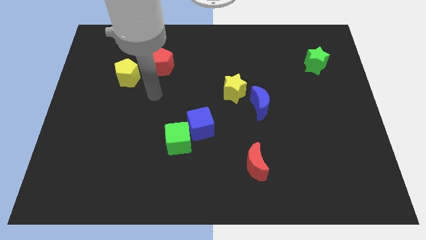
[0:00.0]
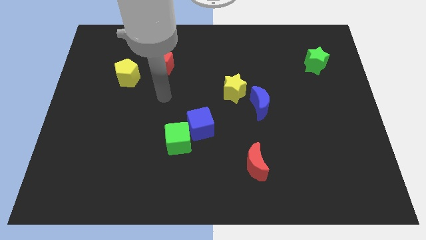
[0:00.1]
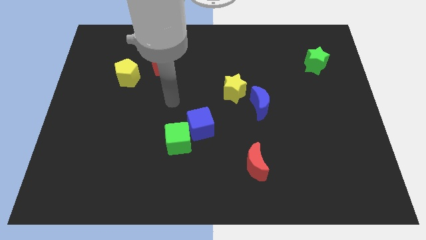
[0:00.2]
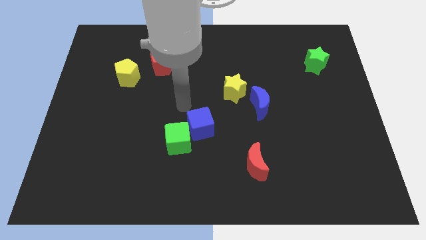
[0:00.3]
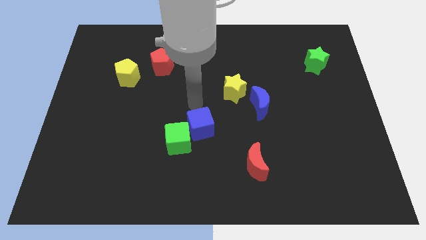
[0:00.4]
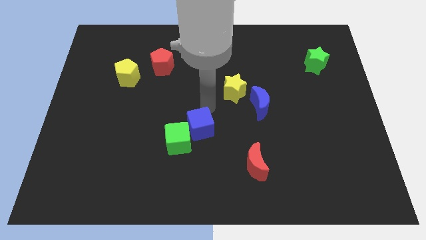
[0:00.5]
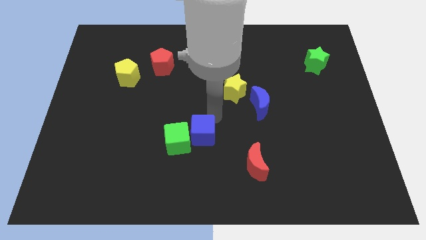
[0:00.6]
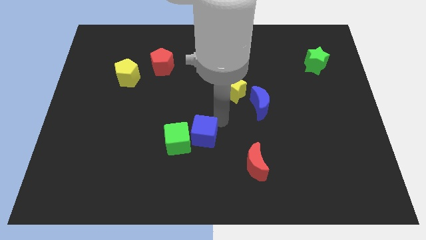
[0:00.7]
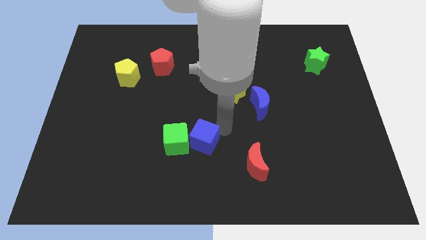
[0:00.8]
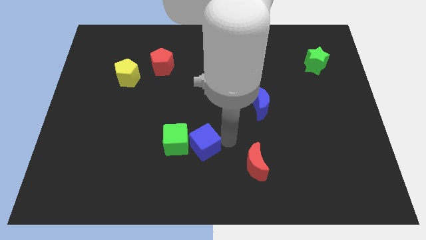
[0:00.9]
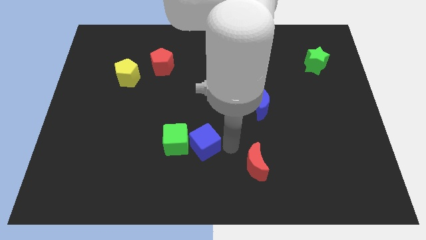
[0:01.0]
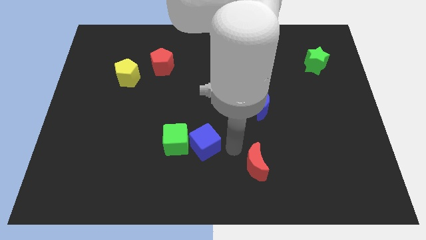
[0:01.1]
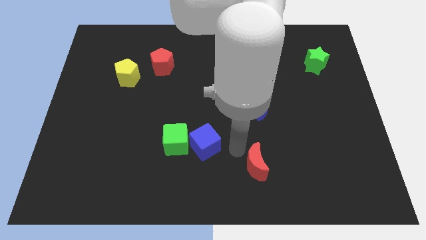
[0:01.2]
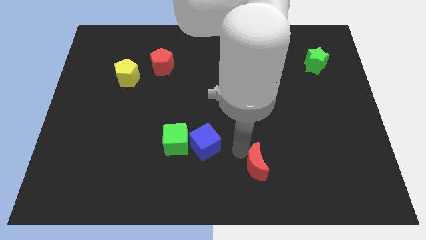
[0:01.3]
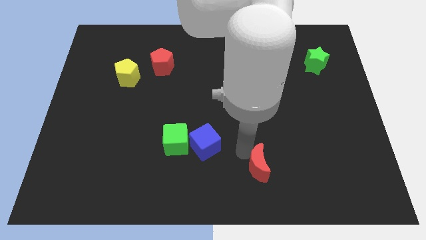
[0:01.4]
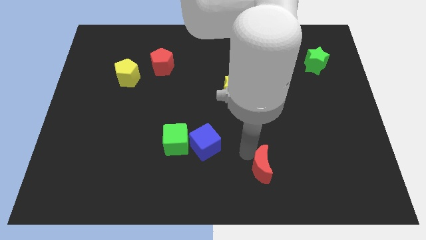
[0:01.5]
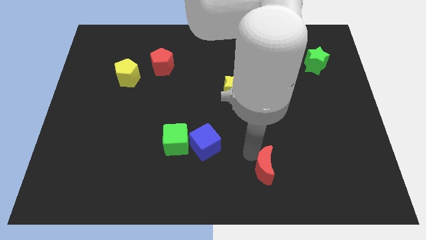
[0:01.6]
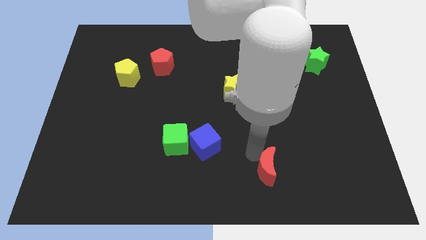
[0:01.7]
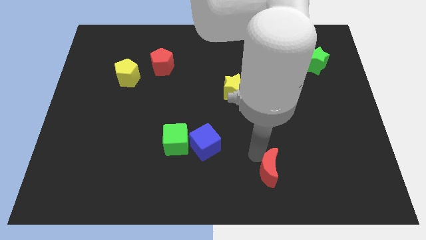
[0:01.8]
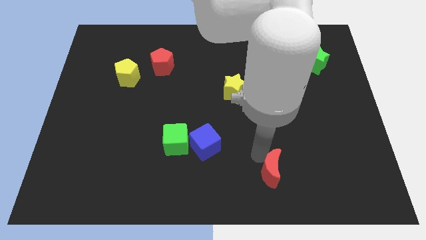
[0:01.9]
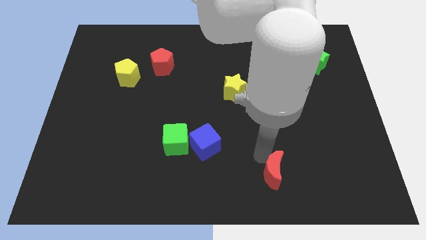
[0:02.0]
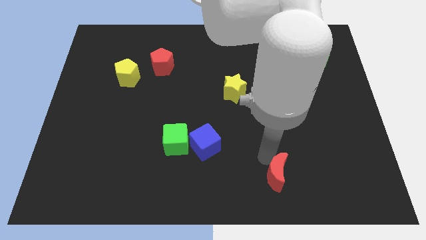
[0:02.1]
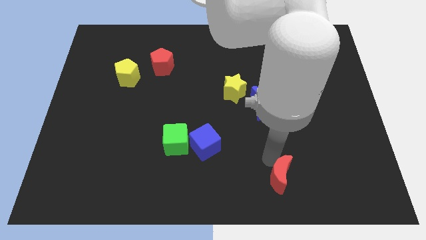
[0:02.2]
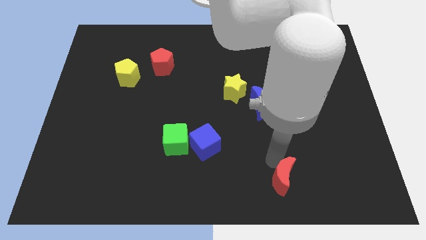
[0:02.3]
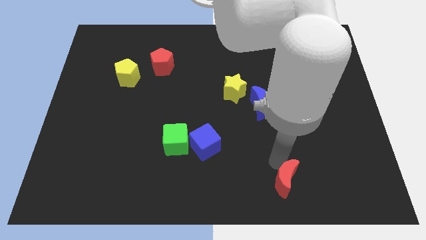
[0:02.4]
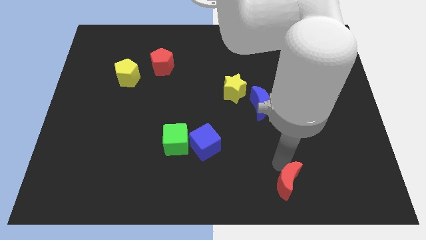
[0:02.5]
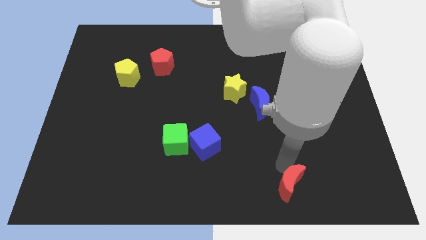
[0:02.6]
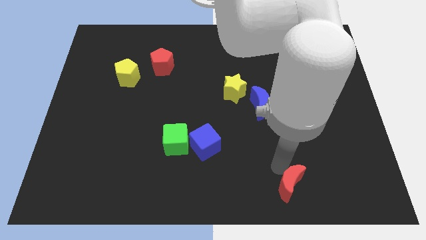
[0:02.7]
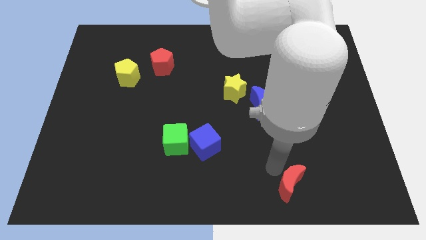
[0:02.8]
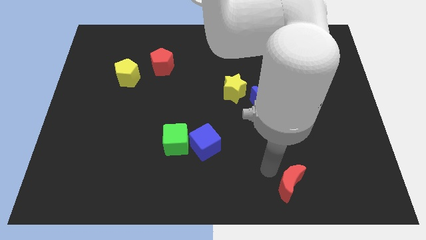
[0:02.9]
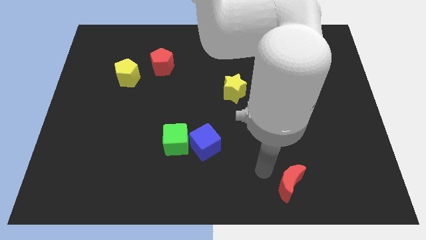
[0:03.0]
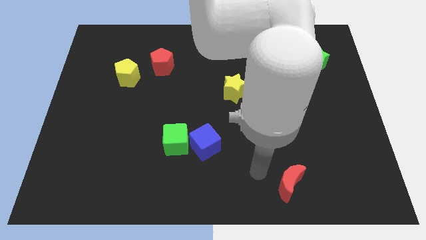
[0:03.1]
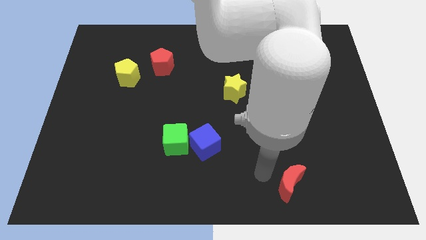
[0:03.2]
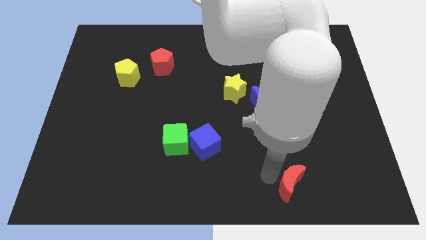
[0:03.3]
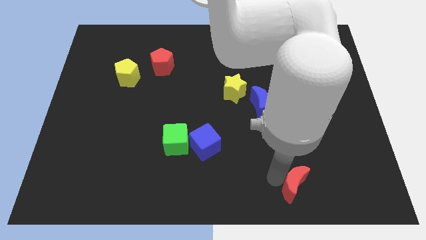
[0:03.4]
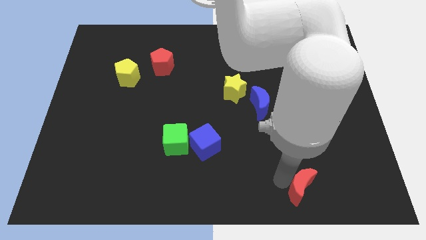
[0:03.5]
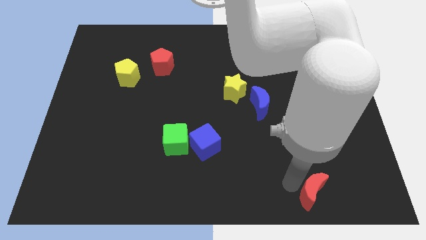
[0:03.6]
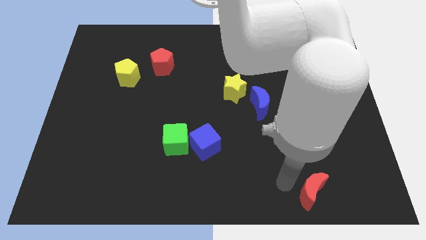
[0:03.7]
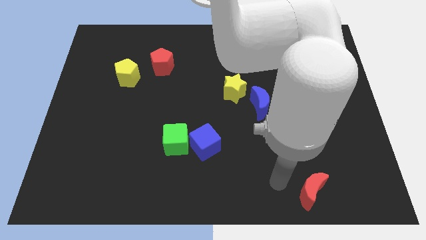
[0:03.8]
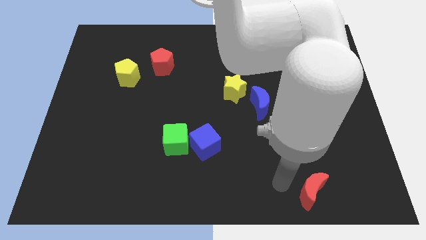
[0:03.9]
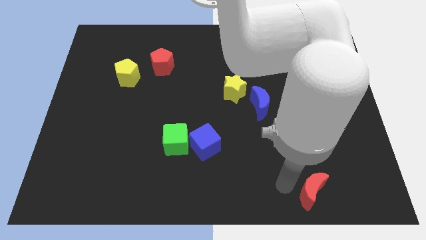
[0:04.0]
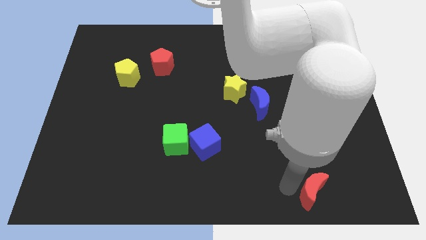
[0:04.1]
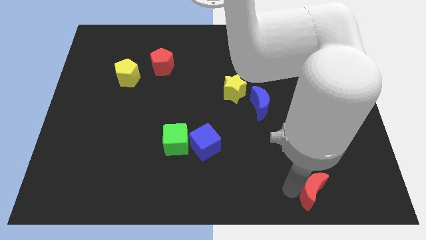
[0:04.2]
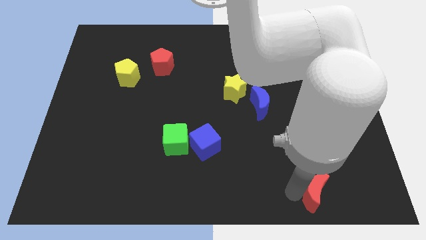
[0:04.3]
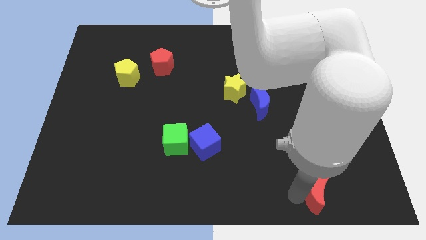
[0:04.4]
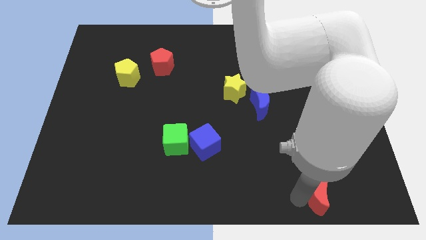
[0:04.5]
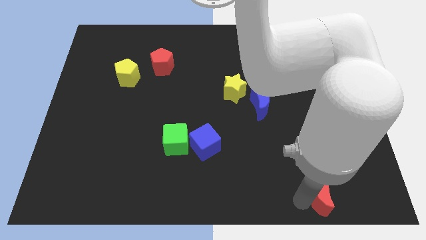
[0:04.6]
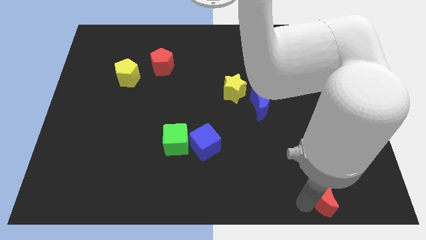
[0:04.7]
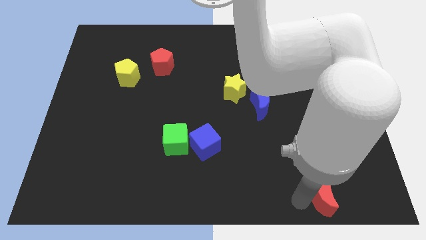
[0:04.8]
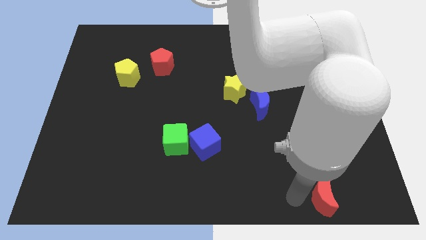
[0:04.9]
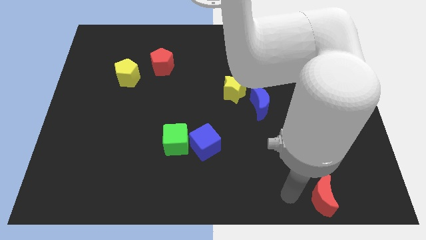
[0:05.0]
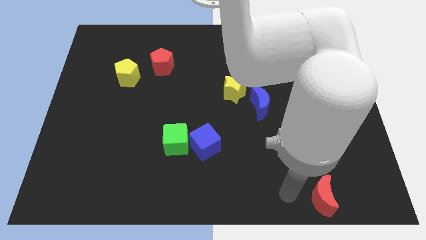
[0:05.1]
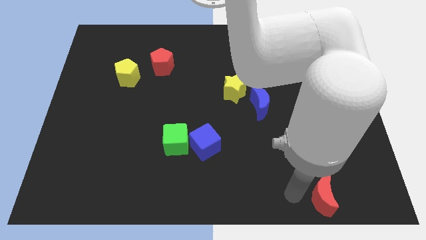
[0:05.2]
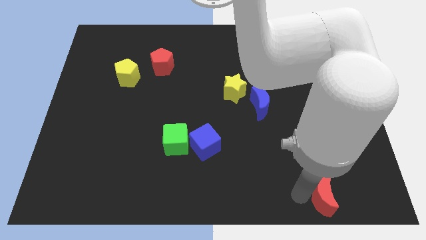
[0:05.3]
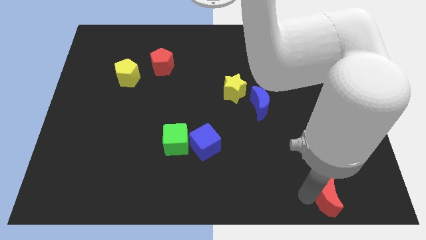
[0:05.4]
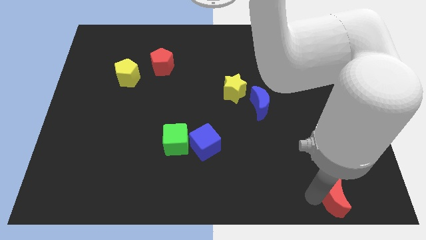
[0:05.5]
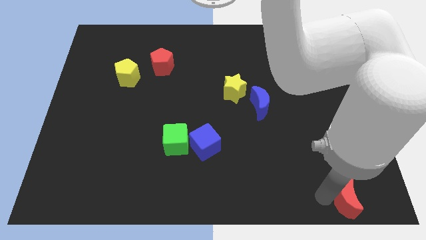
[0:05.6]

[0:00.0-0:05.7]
move the red moon to the bottom right corner
